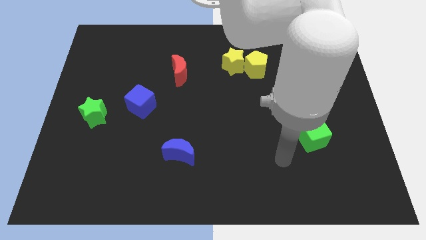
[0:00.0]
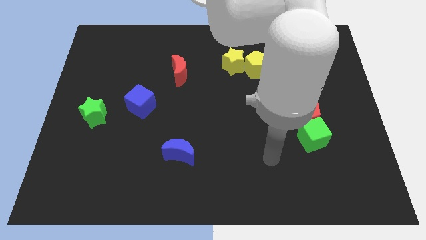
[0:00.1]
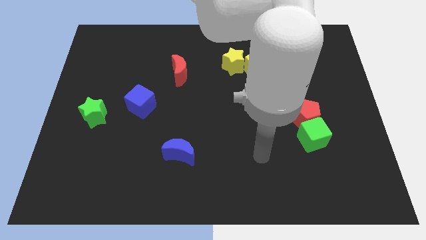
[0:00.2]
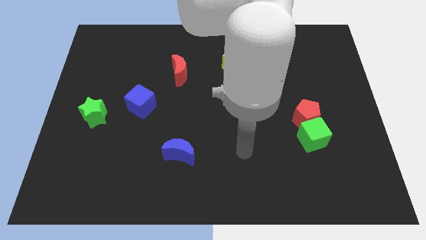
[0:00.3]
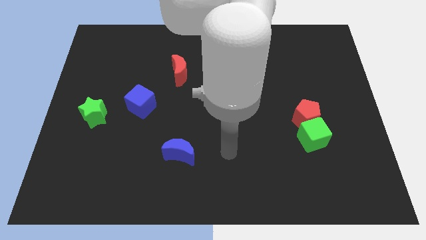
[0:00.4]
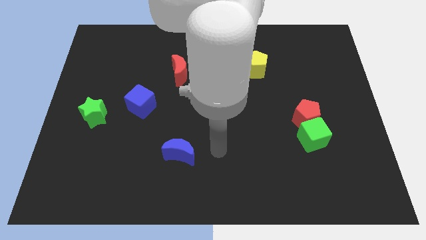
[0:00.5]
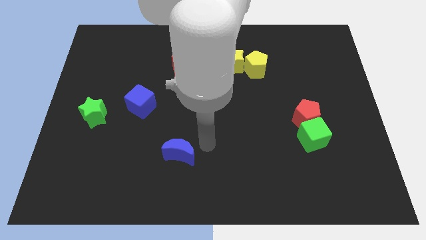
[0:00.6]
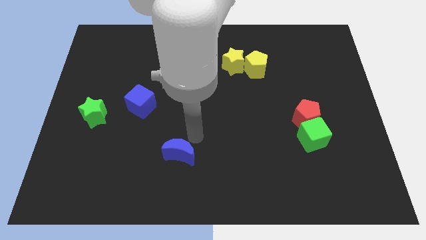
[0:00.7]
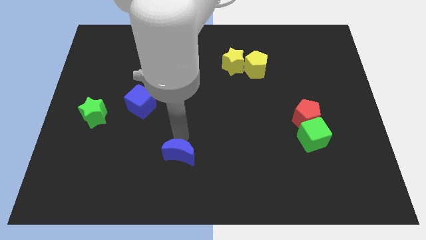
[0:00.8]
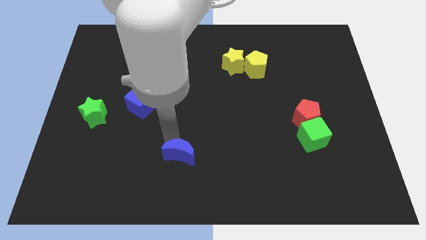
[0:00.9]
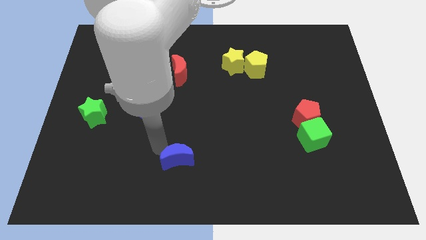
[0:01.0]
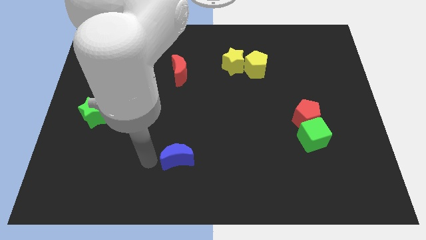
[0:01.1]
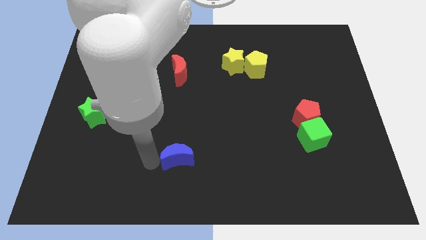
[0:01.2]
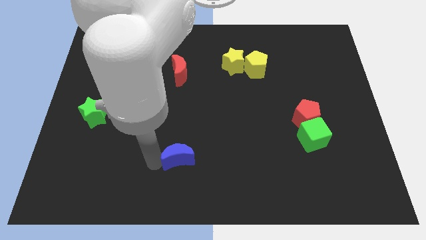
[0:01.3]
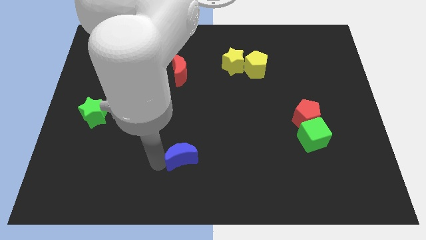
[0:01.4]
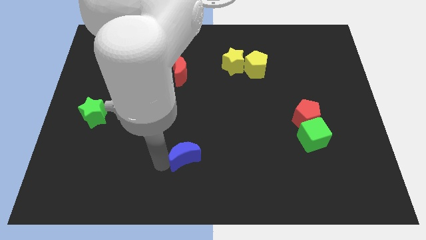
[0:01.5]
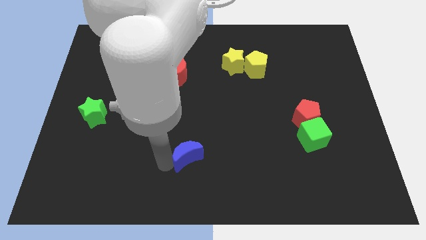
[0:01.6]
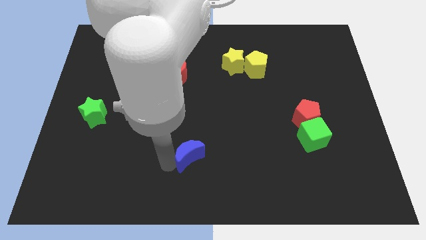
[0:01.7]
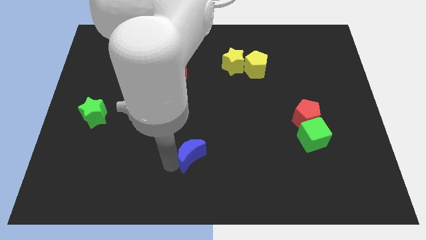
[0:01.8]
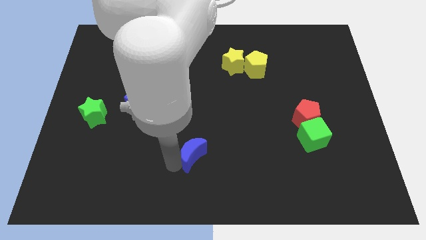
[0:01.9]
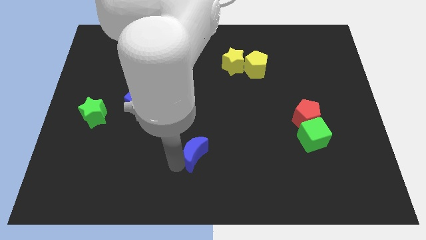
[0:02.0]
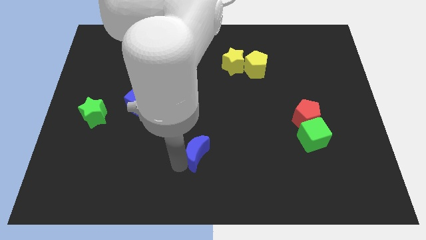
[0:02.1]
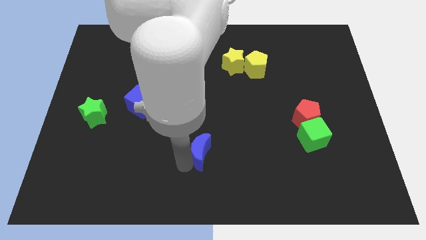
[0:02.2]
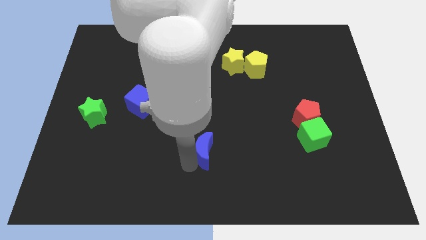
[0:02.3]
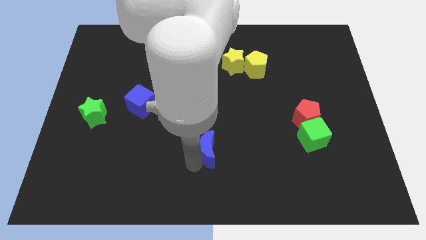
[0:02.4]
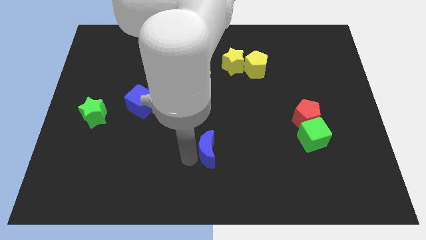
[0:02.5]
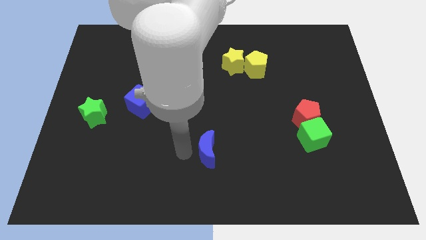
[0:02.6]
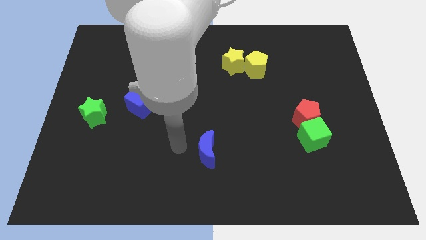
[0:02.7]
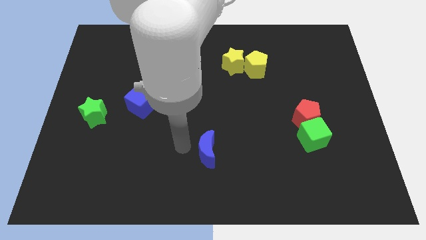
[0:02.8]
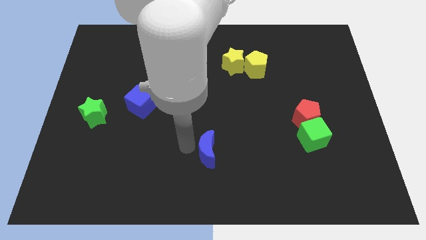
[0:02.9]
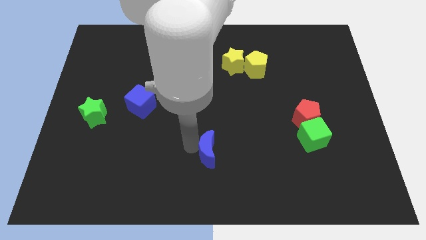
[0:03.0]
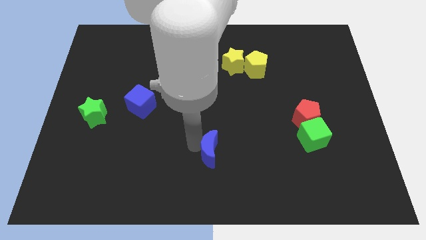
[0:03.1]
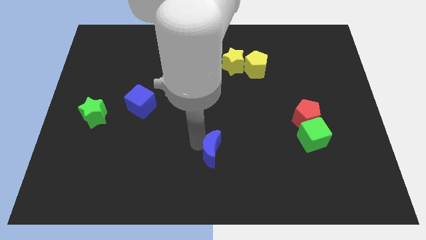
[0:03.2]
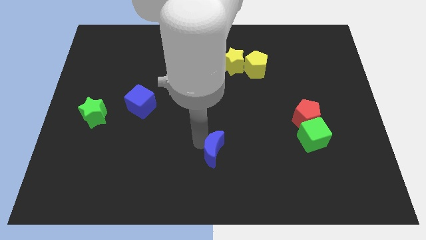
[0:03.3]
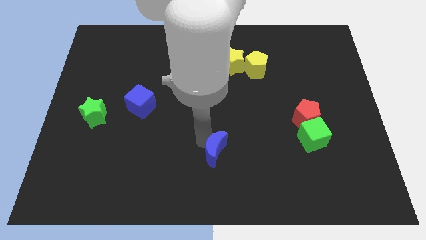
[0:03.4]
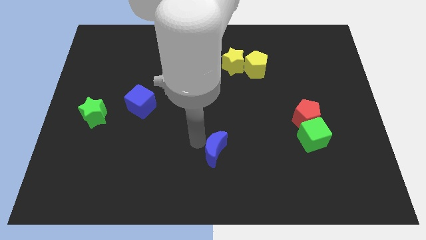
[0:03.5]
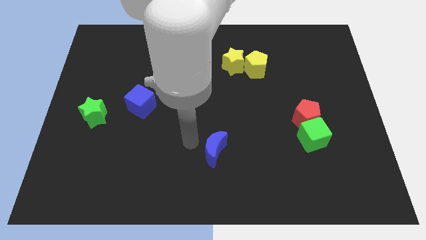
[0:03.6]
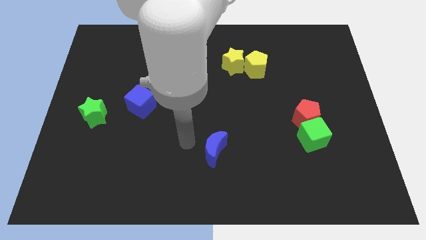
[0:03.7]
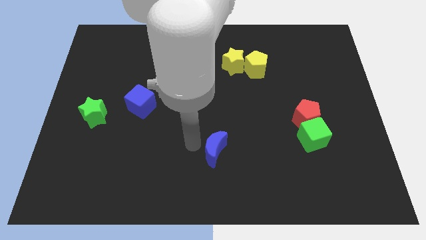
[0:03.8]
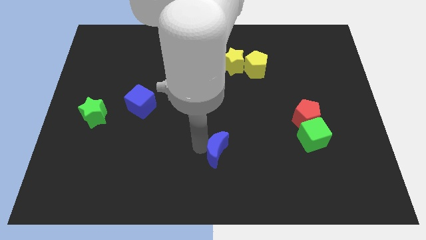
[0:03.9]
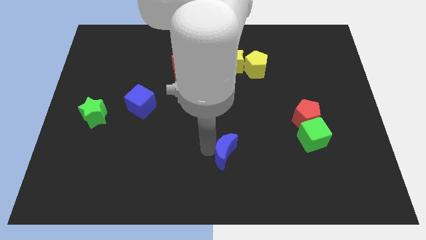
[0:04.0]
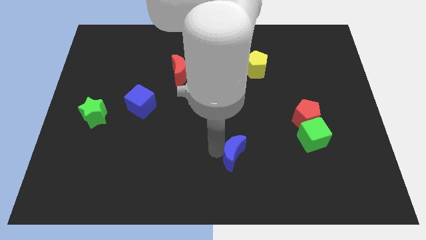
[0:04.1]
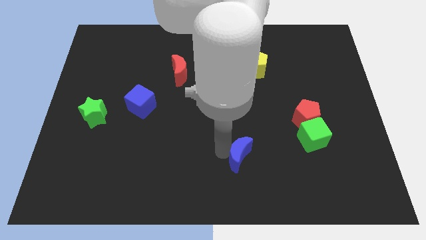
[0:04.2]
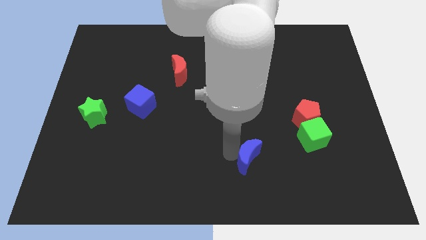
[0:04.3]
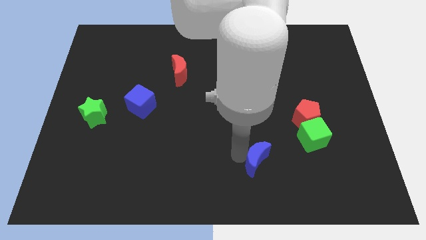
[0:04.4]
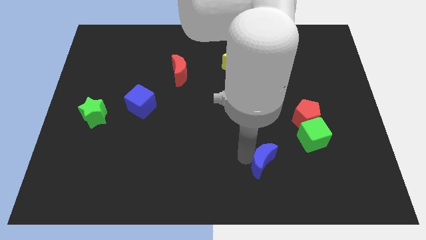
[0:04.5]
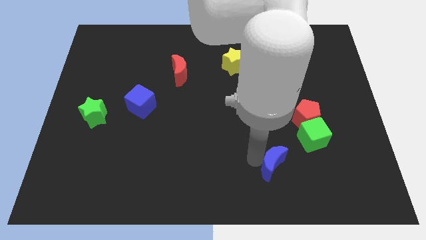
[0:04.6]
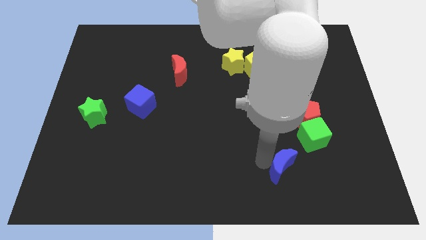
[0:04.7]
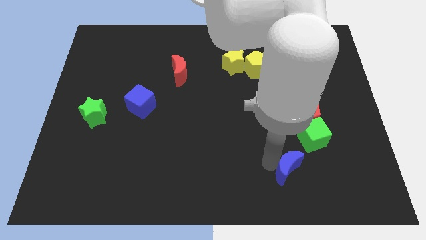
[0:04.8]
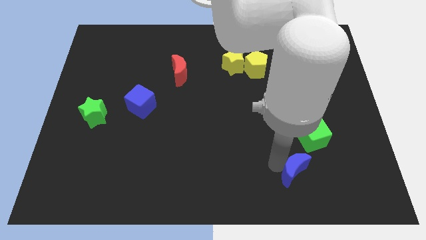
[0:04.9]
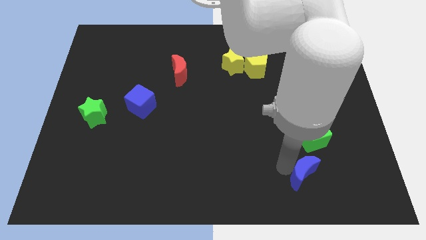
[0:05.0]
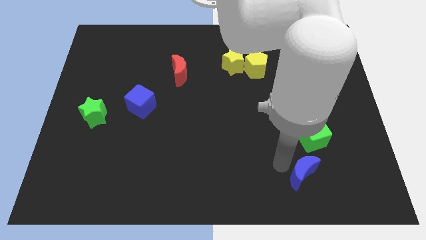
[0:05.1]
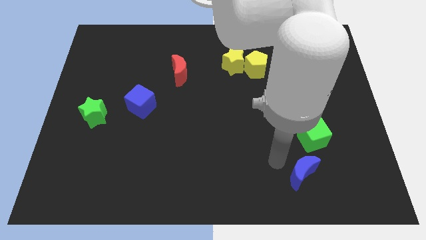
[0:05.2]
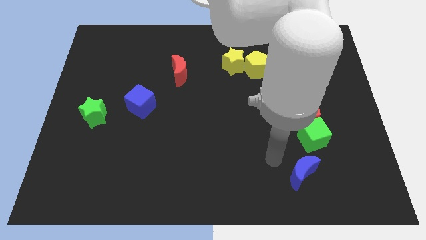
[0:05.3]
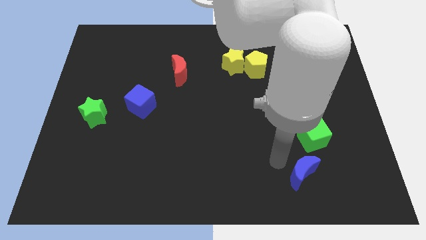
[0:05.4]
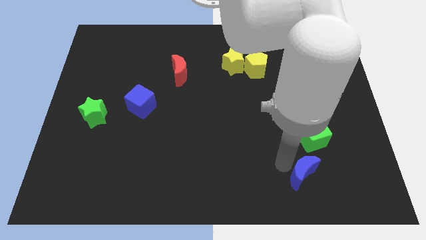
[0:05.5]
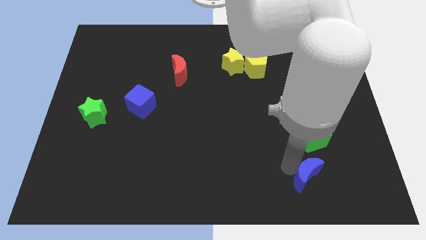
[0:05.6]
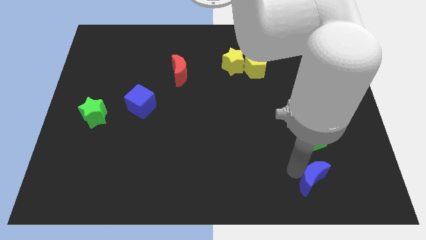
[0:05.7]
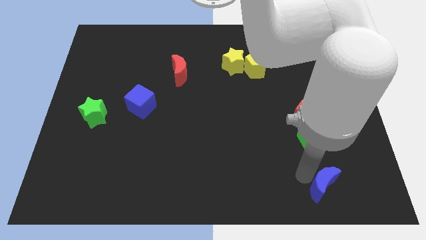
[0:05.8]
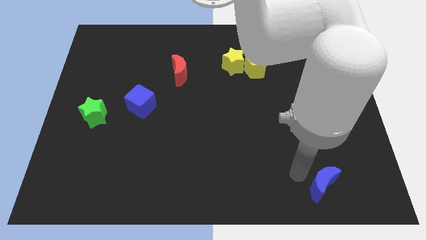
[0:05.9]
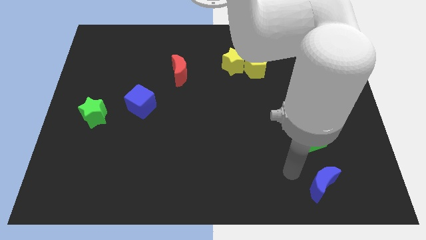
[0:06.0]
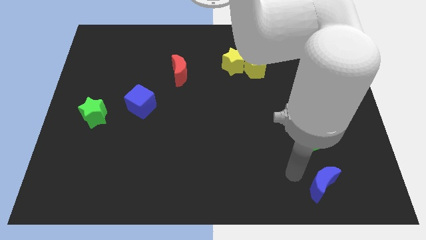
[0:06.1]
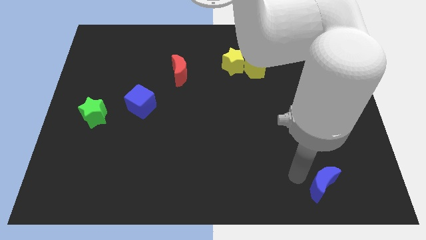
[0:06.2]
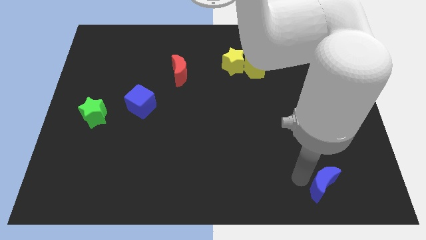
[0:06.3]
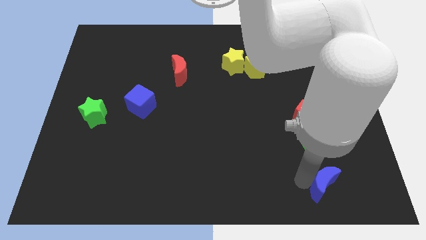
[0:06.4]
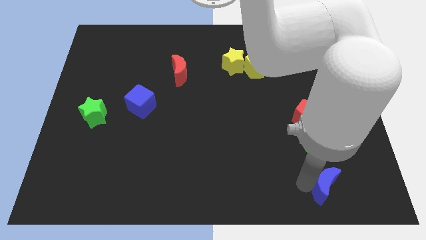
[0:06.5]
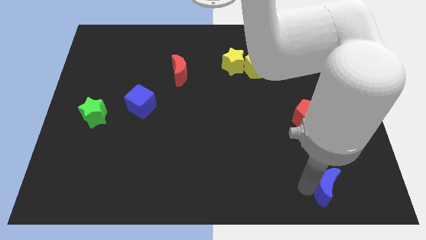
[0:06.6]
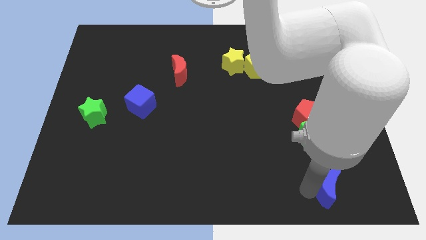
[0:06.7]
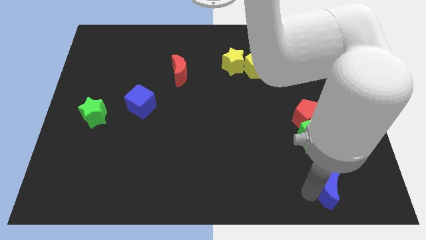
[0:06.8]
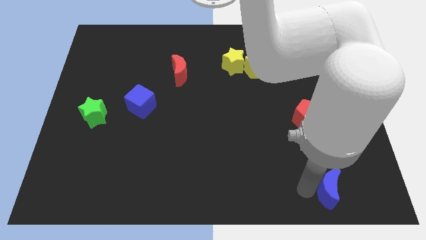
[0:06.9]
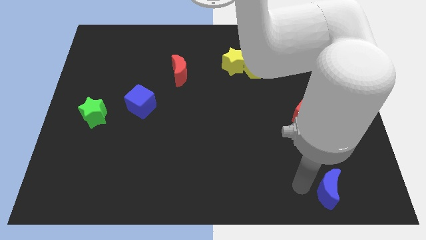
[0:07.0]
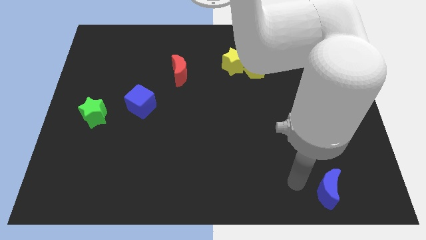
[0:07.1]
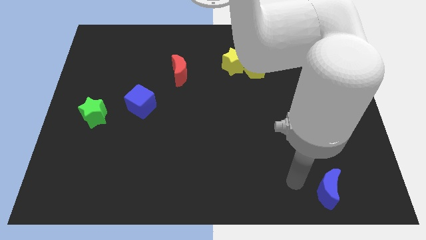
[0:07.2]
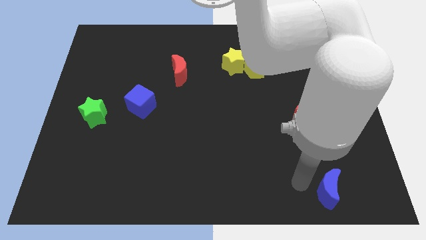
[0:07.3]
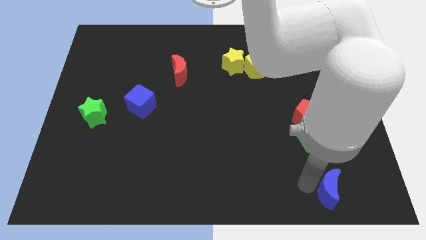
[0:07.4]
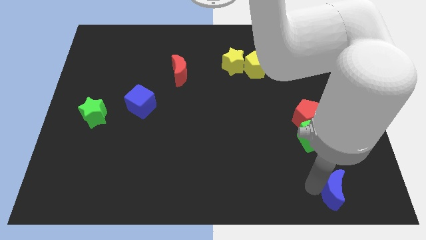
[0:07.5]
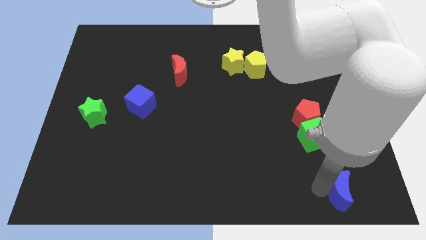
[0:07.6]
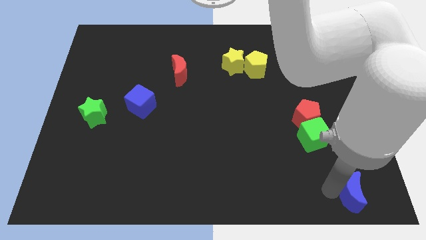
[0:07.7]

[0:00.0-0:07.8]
slide the blue moon to the bottom right corner
